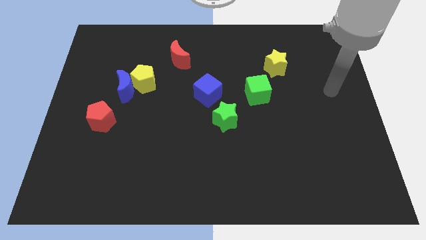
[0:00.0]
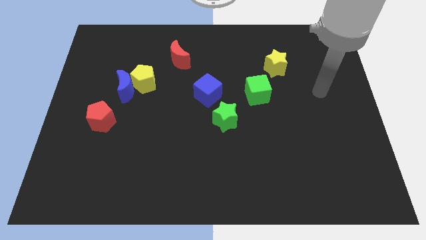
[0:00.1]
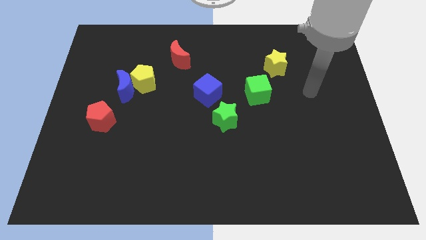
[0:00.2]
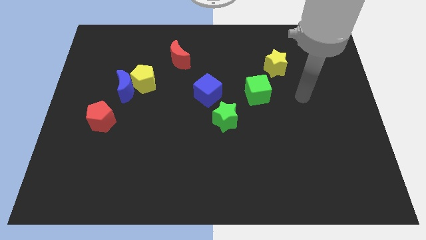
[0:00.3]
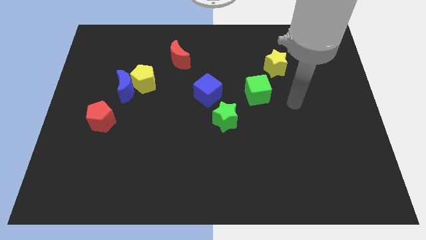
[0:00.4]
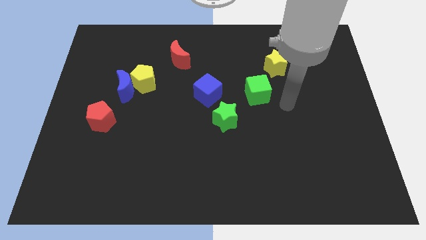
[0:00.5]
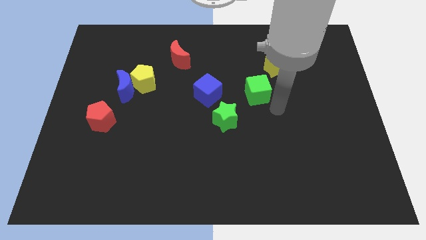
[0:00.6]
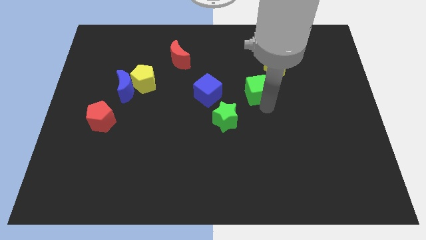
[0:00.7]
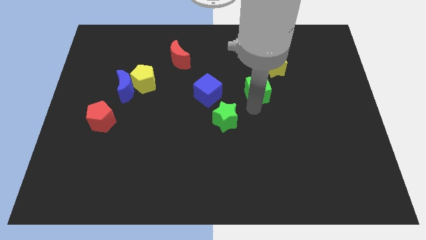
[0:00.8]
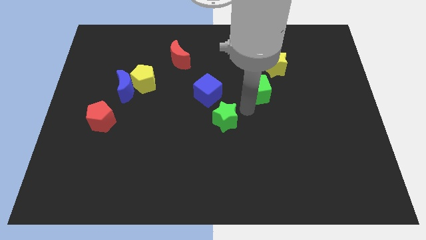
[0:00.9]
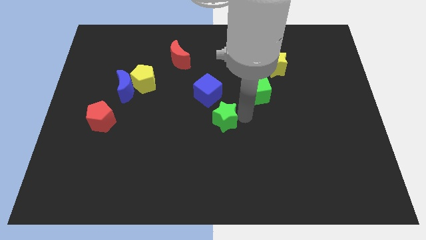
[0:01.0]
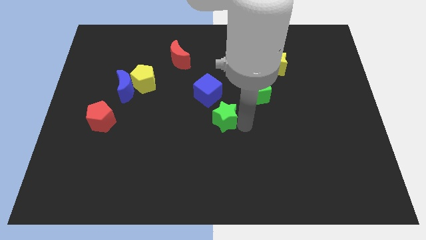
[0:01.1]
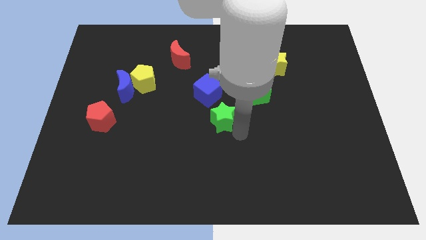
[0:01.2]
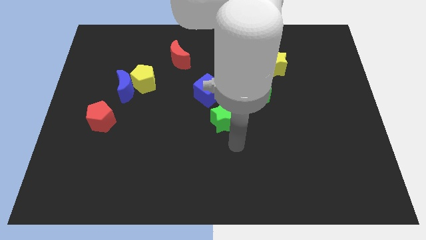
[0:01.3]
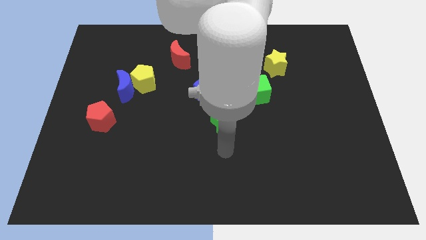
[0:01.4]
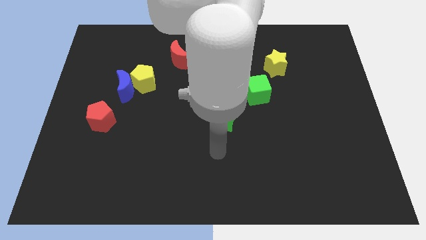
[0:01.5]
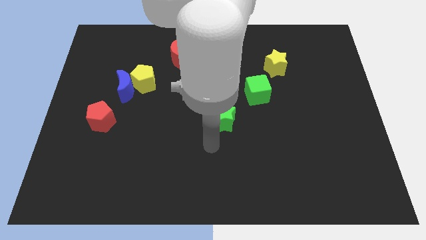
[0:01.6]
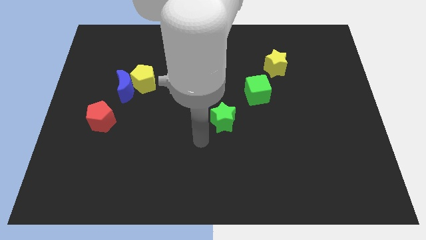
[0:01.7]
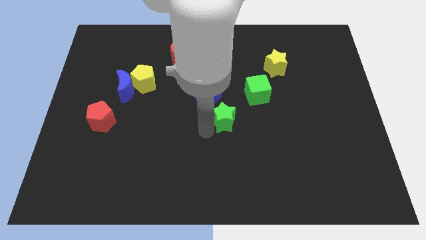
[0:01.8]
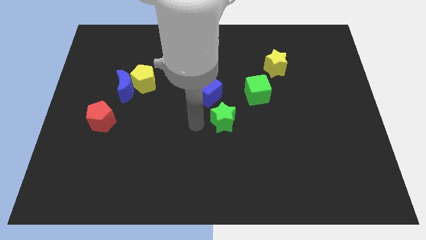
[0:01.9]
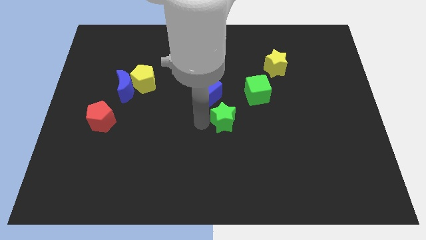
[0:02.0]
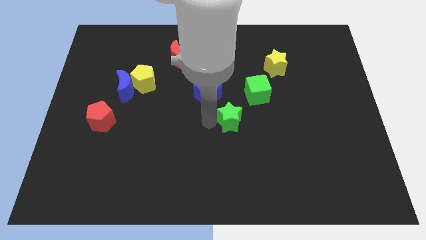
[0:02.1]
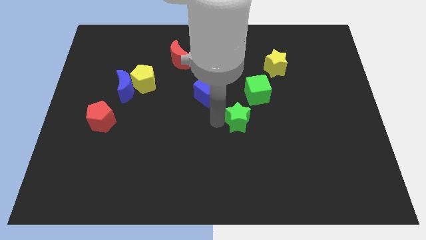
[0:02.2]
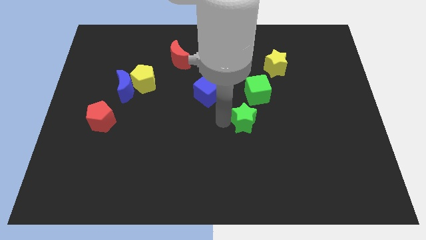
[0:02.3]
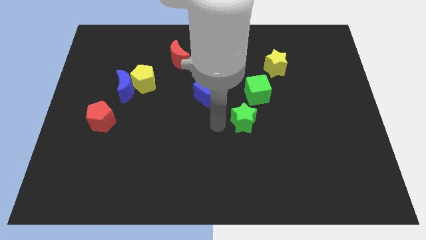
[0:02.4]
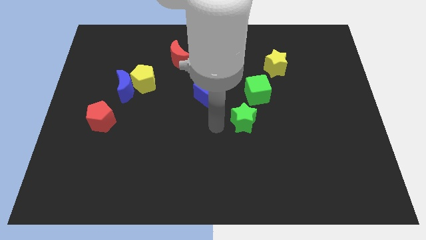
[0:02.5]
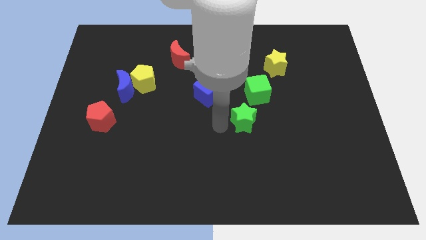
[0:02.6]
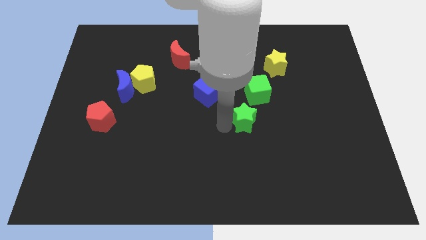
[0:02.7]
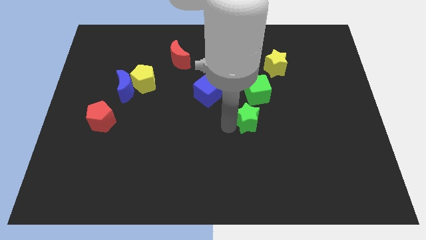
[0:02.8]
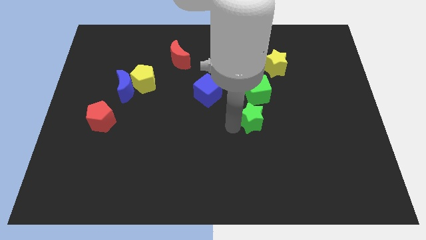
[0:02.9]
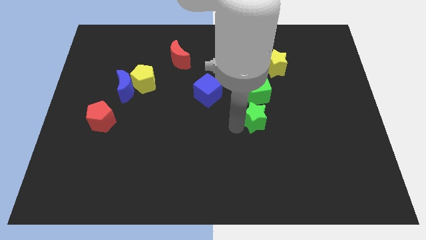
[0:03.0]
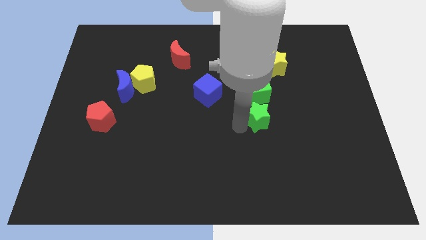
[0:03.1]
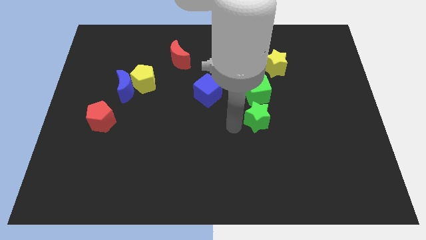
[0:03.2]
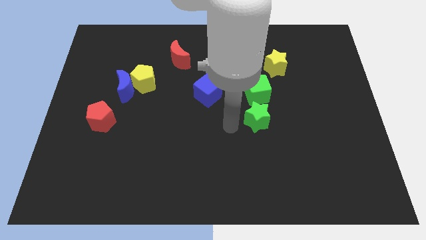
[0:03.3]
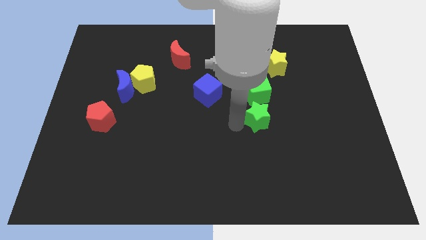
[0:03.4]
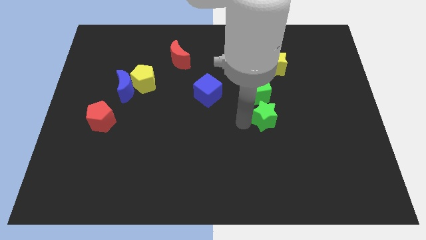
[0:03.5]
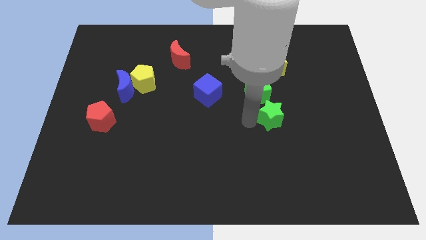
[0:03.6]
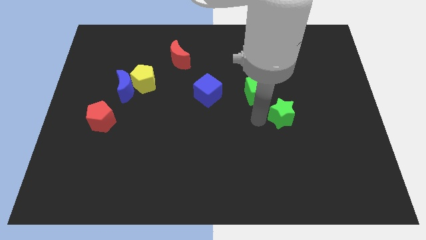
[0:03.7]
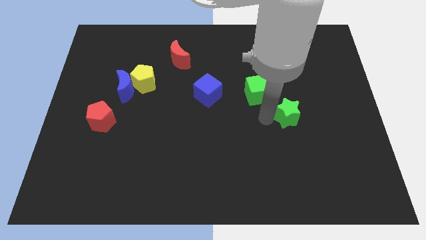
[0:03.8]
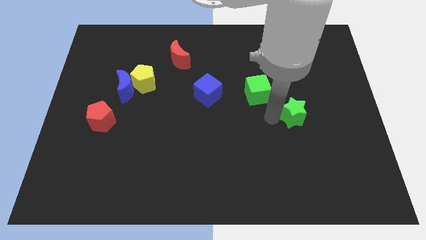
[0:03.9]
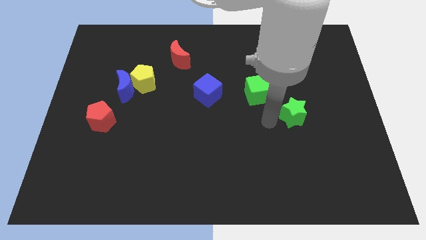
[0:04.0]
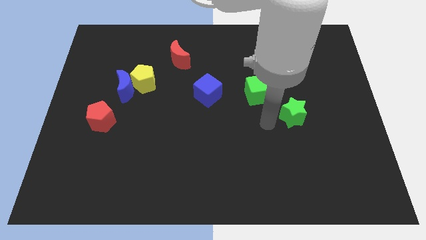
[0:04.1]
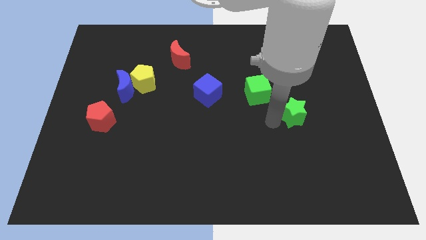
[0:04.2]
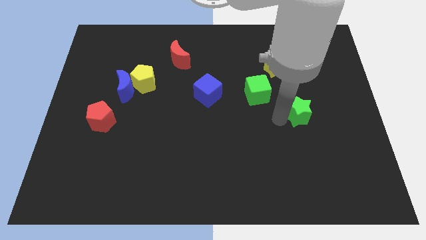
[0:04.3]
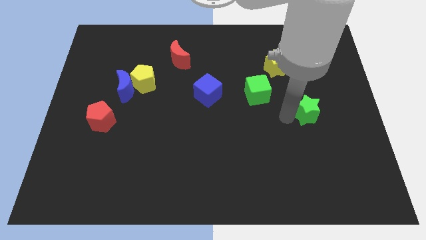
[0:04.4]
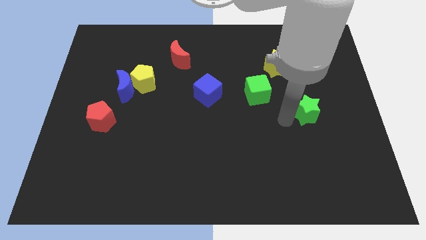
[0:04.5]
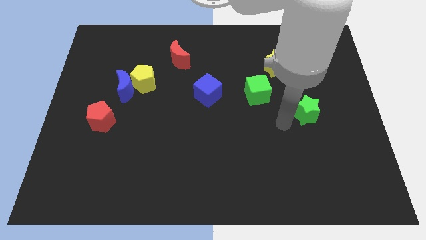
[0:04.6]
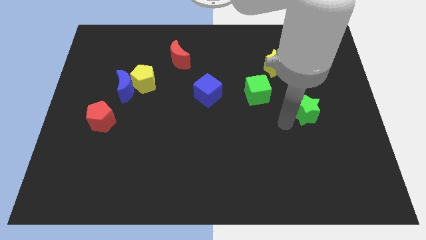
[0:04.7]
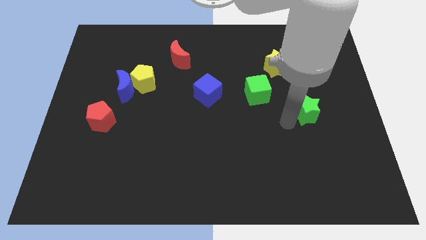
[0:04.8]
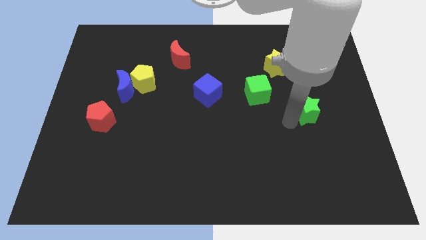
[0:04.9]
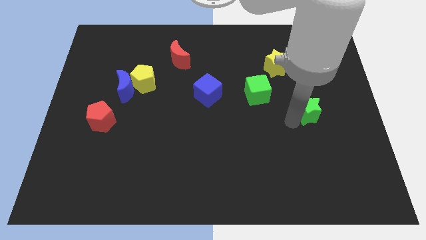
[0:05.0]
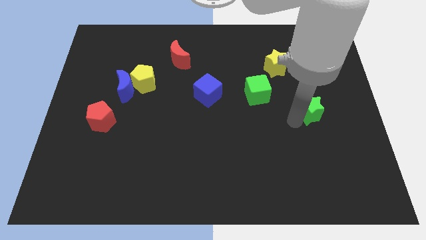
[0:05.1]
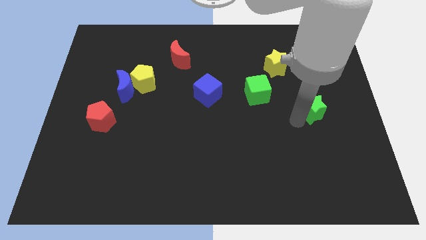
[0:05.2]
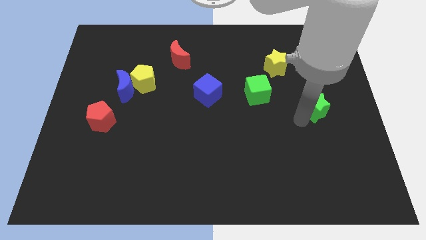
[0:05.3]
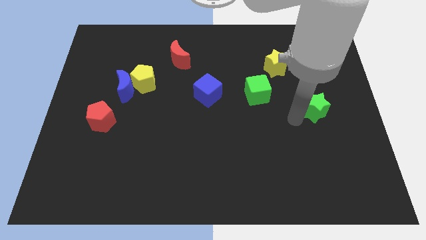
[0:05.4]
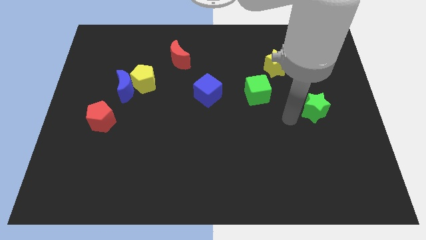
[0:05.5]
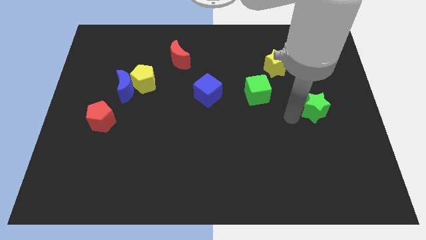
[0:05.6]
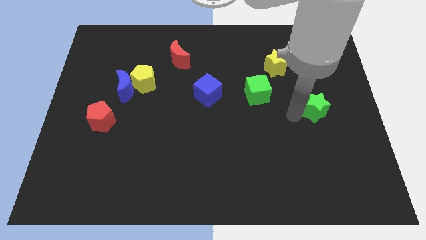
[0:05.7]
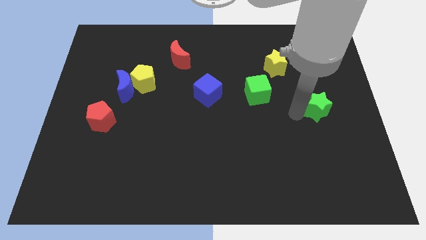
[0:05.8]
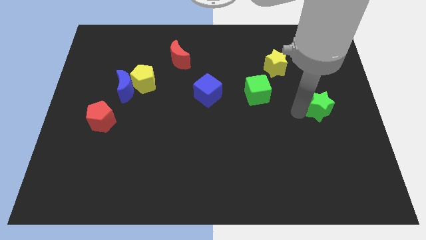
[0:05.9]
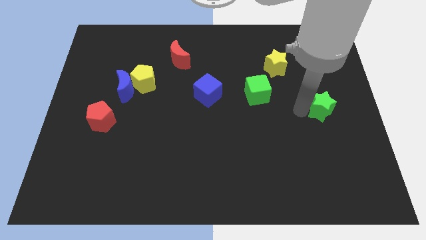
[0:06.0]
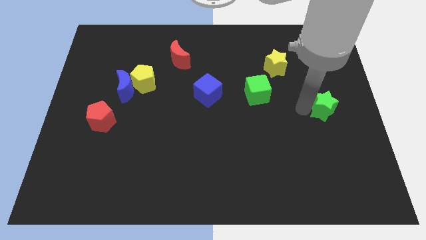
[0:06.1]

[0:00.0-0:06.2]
push the green star to the center right
